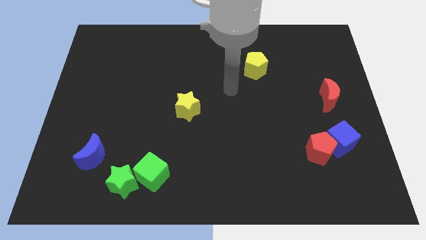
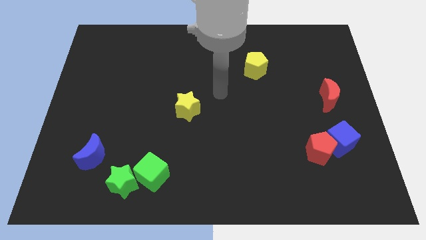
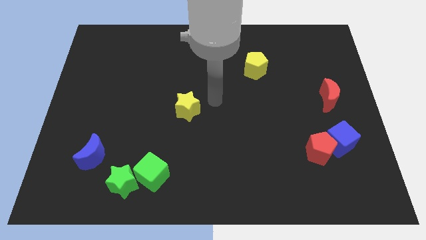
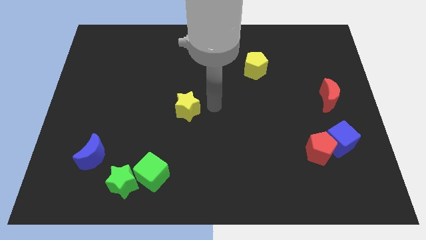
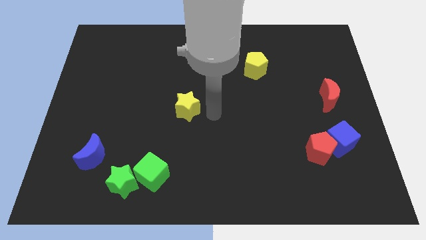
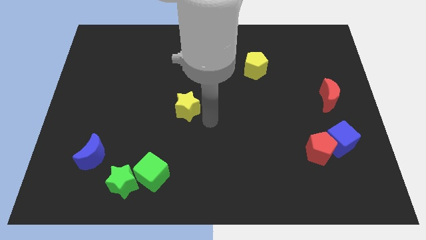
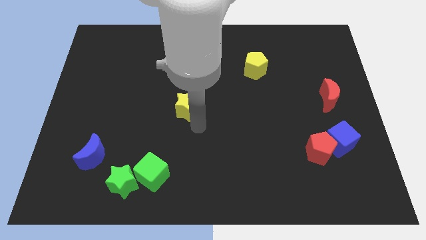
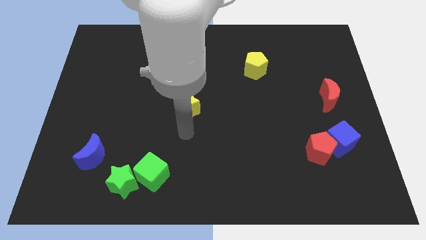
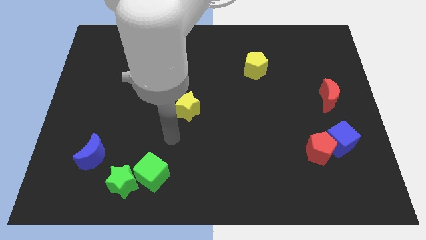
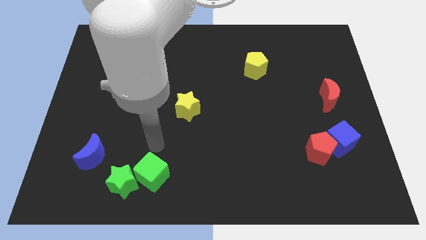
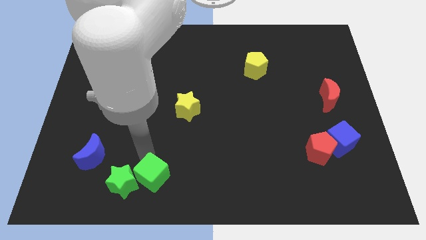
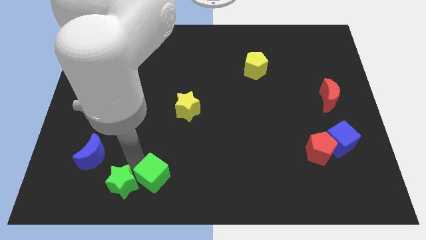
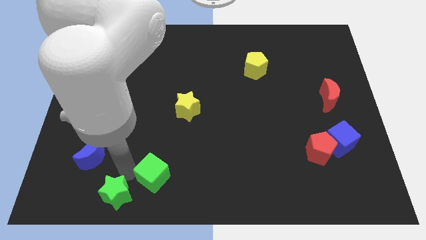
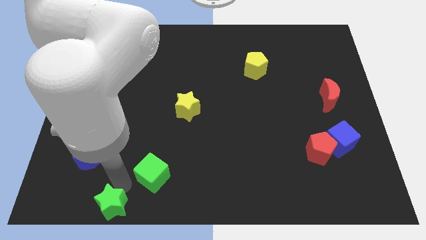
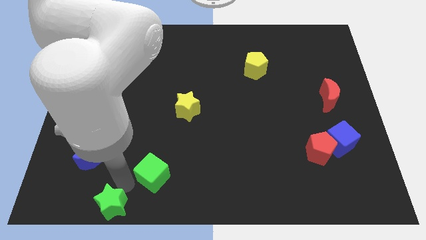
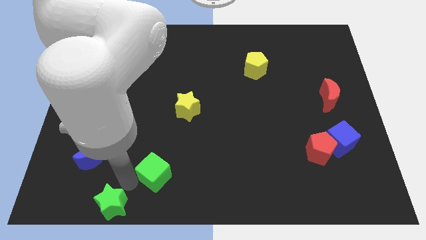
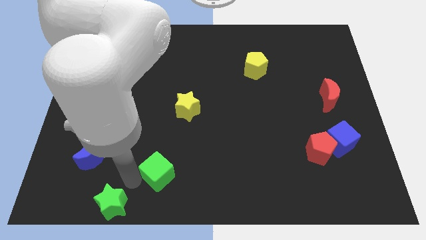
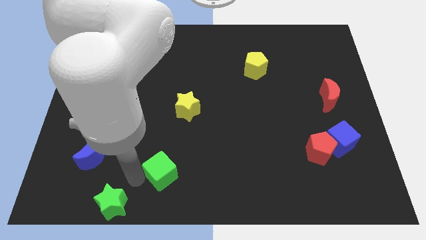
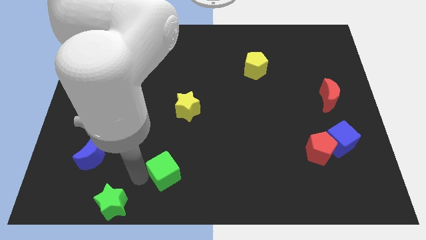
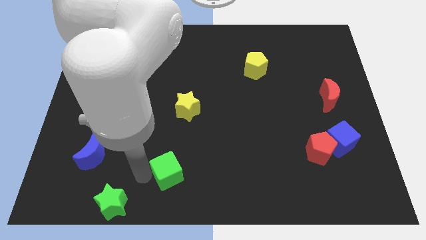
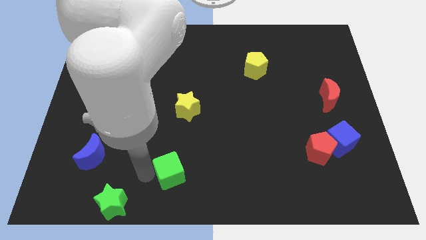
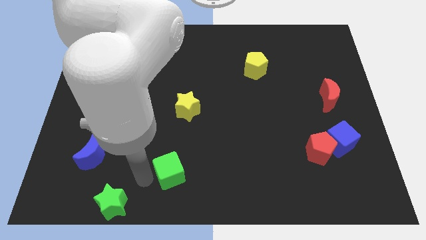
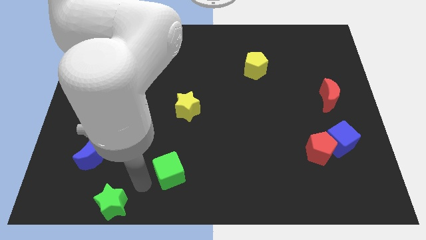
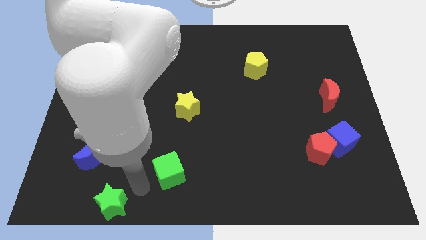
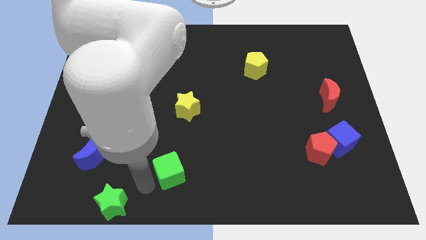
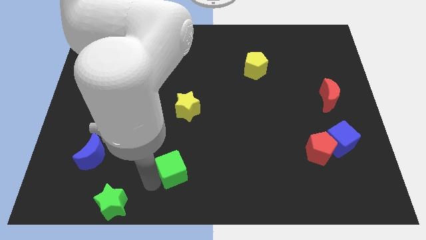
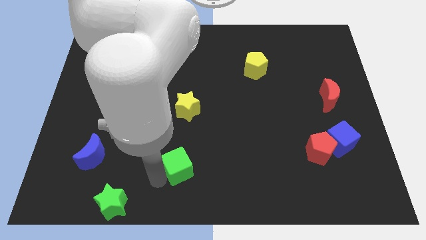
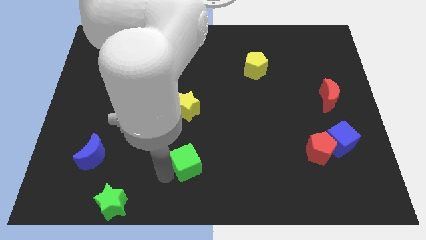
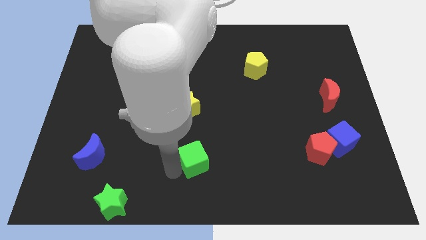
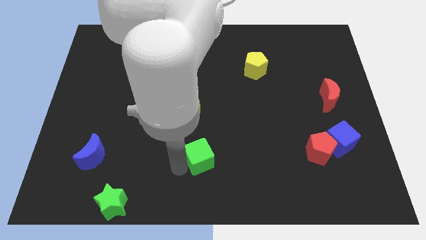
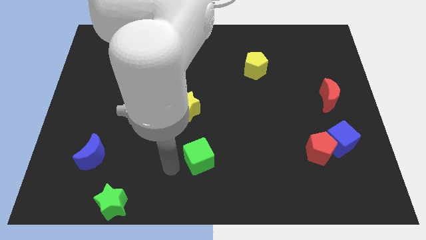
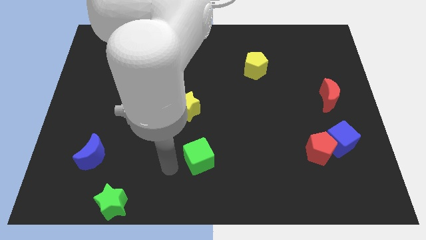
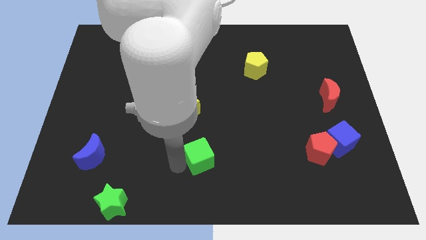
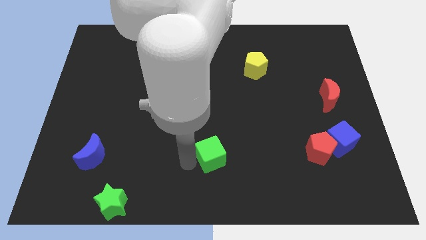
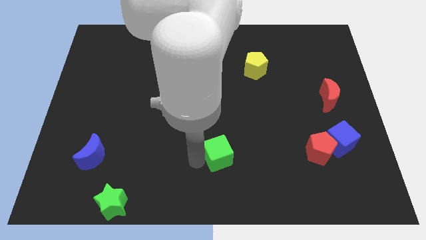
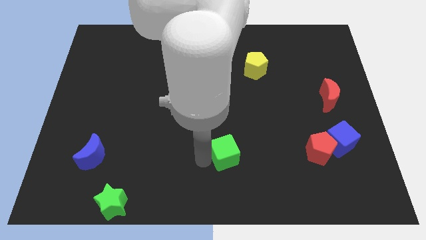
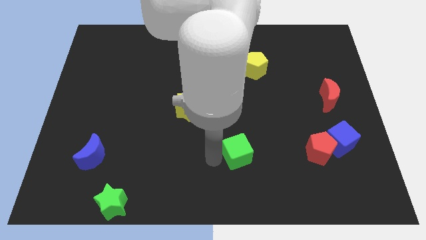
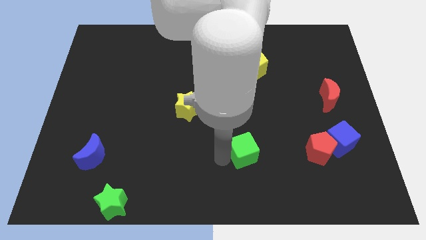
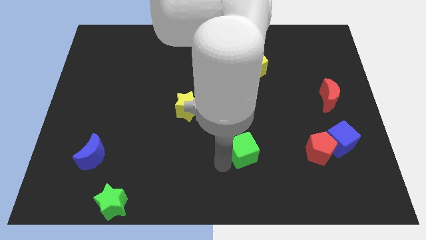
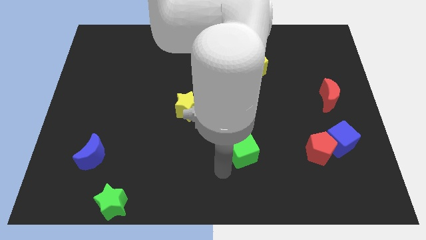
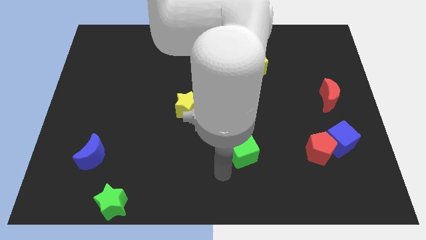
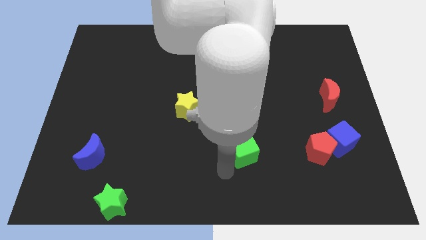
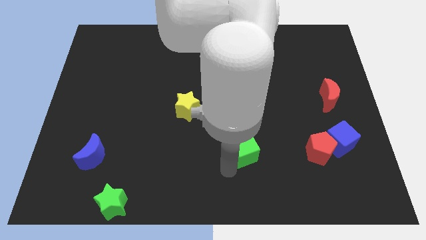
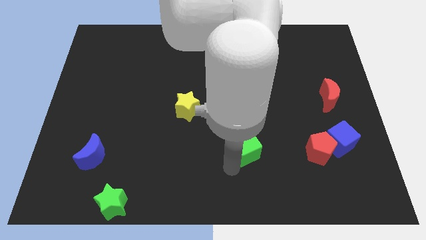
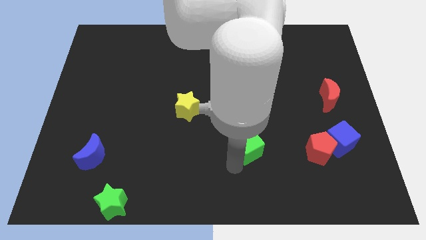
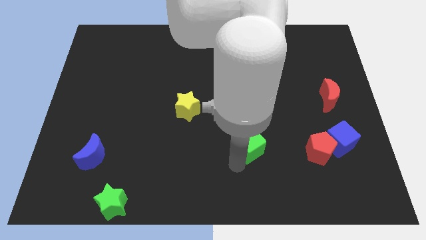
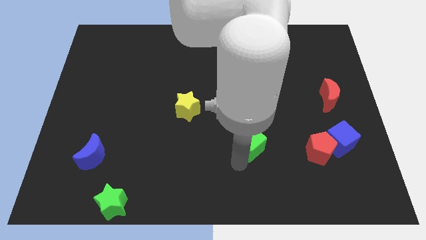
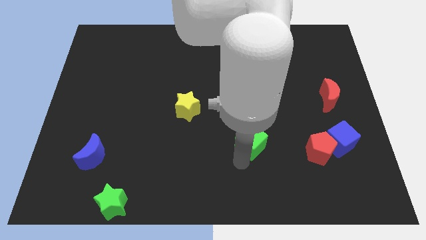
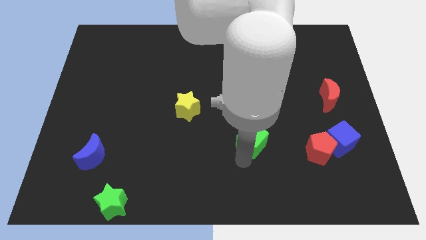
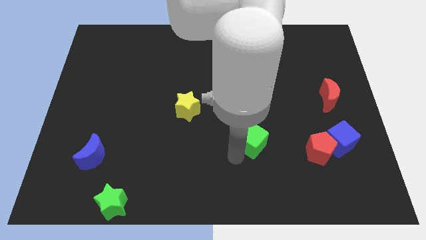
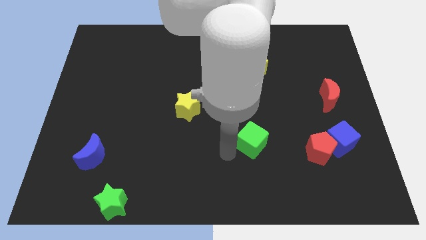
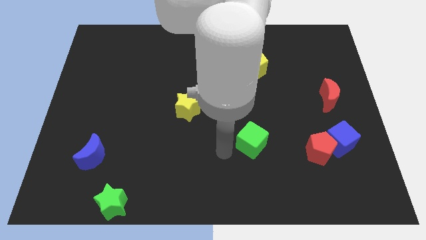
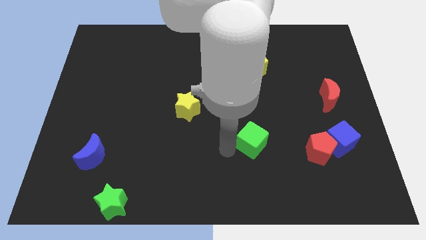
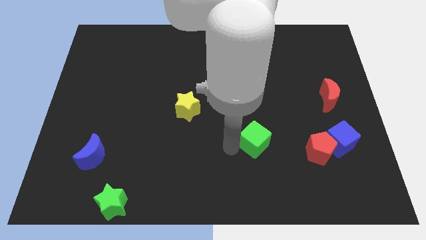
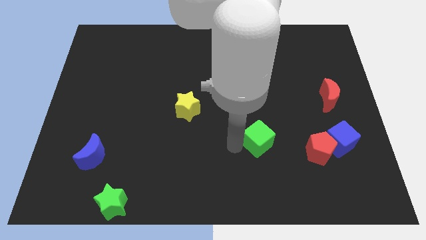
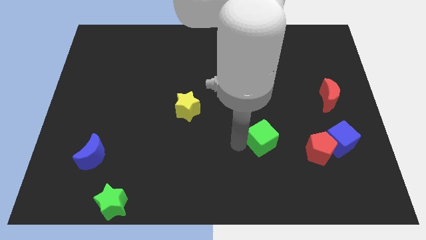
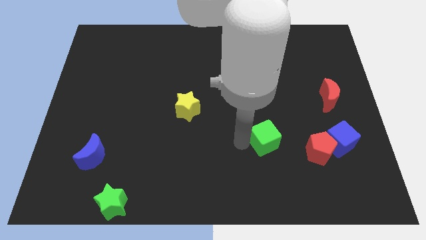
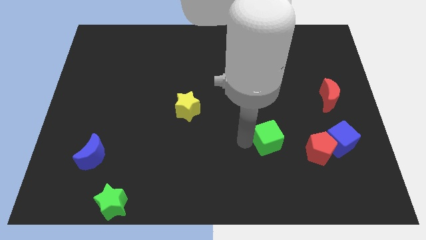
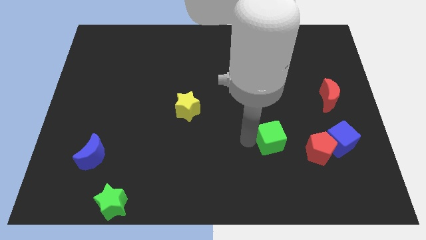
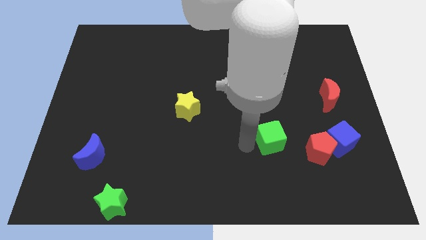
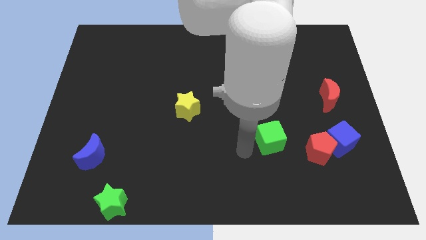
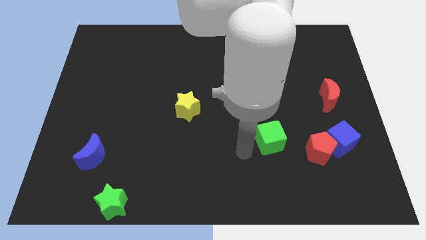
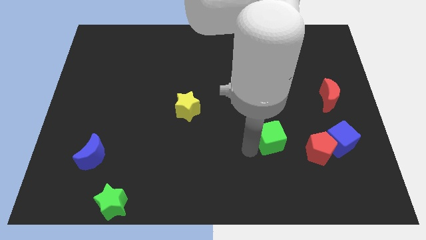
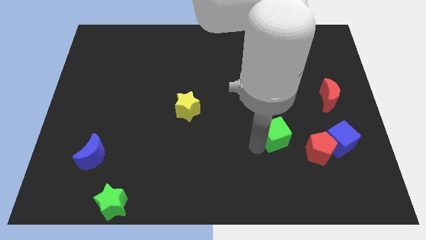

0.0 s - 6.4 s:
move the green cube diagonally up and to the left of the red pentagon

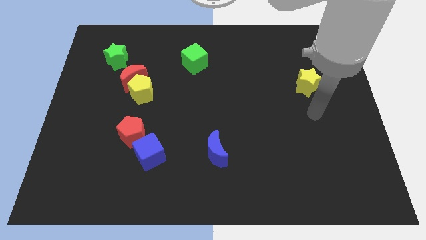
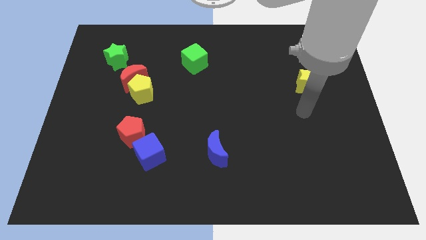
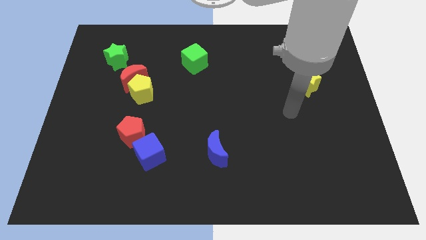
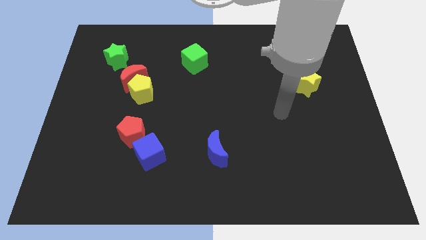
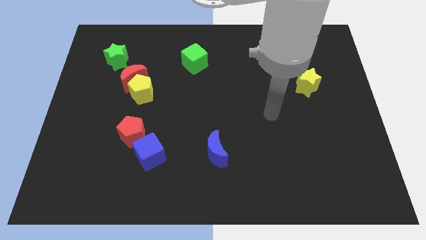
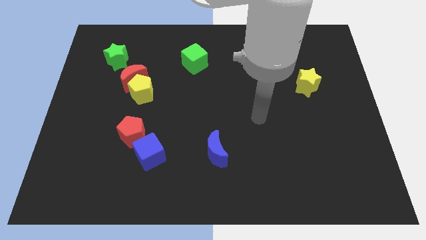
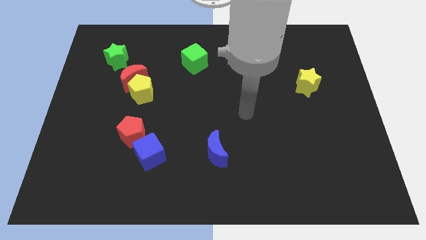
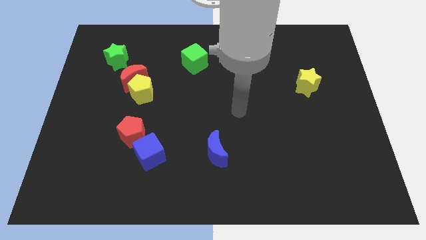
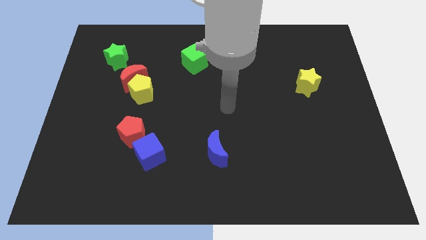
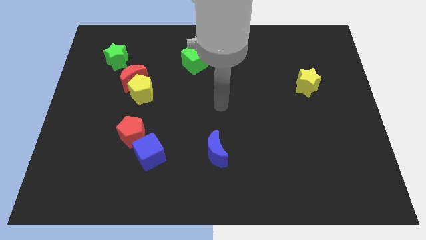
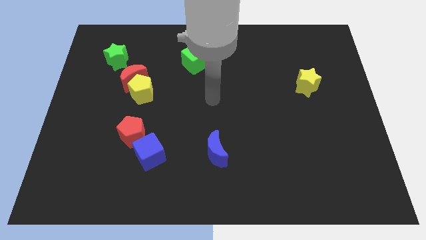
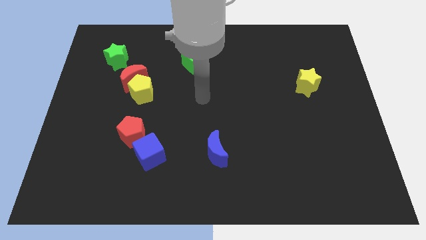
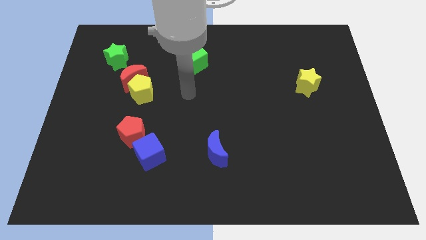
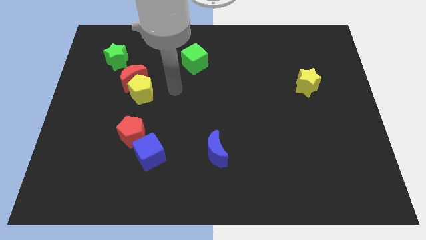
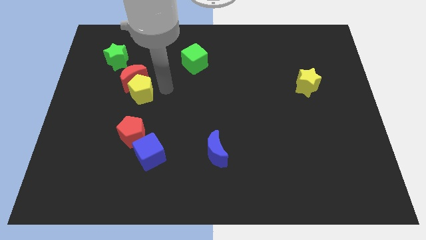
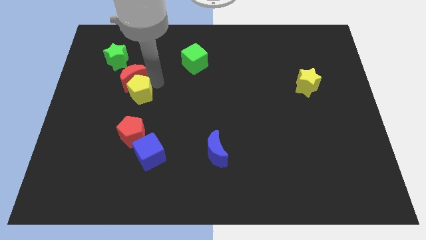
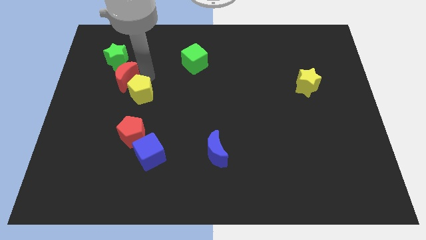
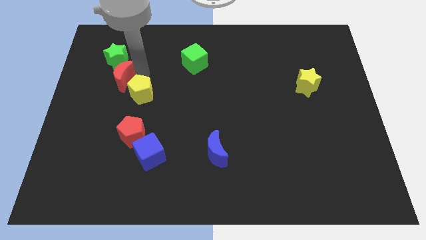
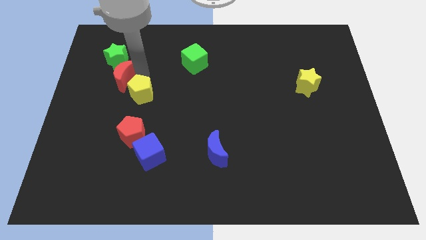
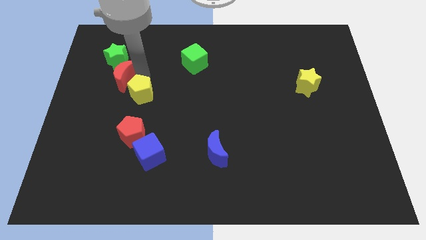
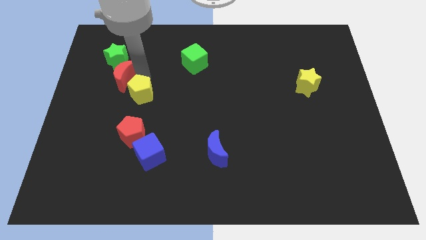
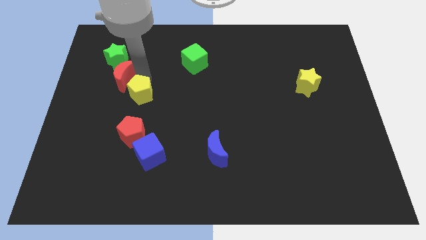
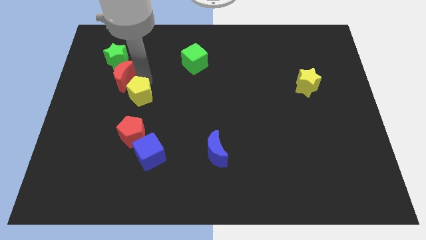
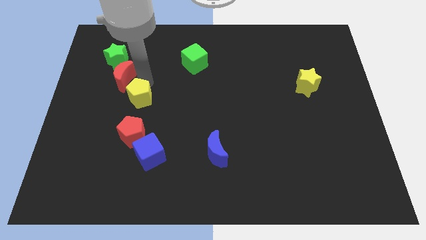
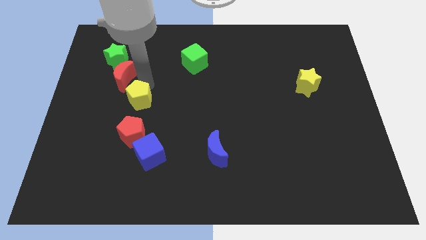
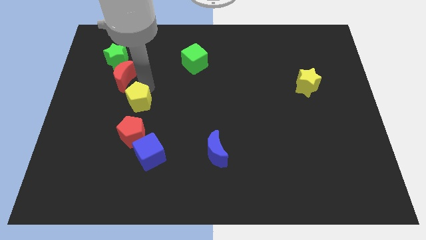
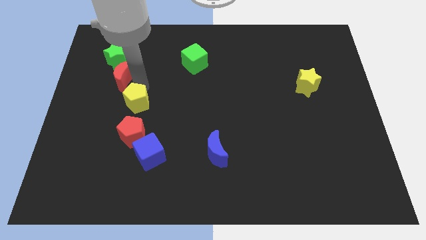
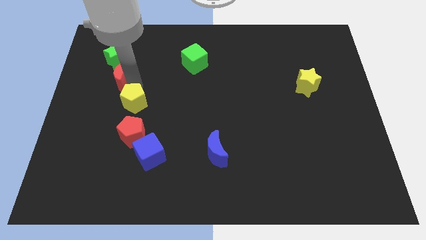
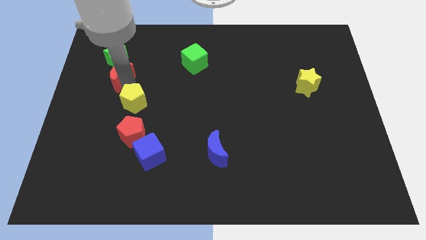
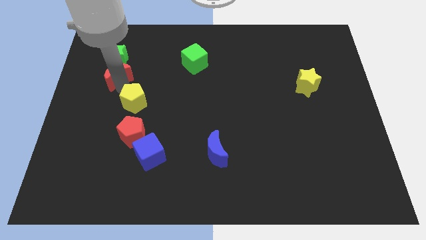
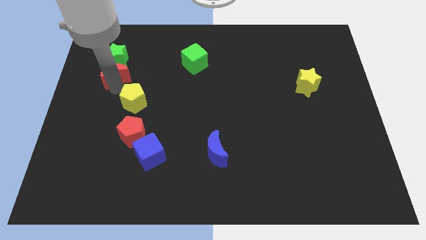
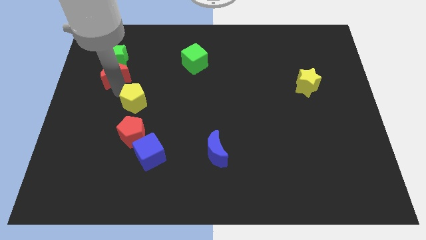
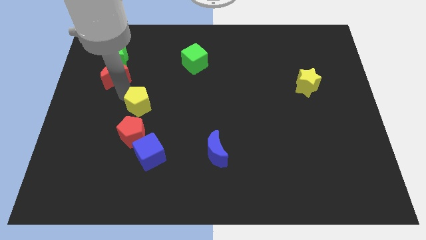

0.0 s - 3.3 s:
push the yellow pentagon to the top of the blue cube
